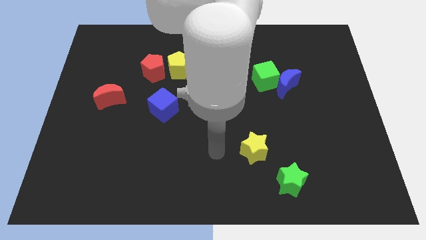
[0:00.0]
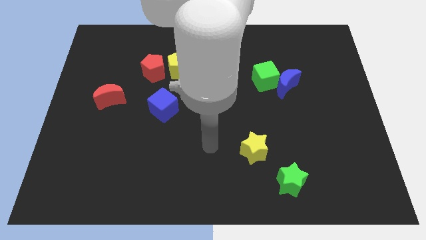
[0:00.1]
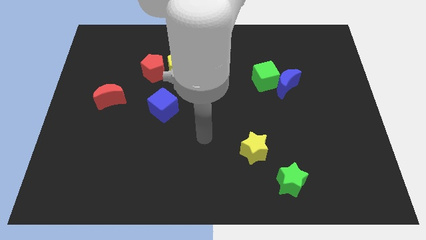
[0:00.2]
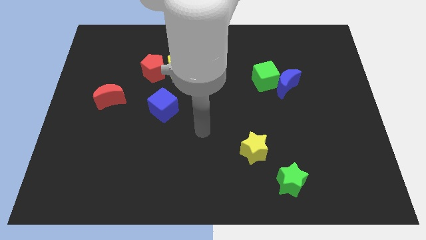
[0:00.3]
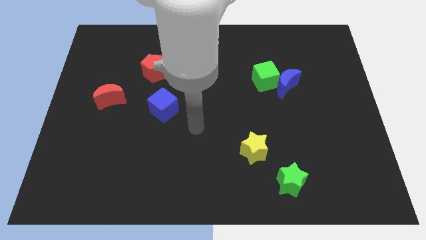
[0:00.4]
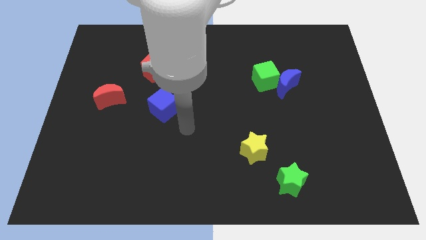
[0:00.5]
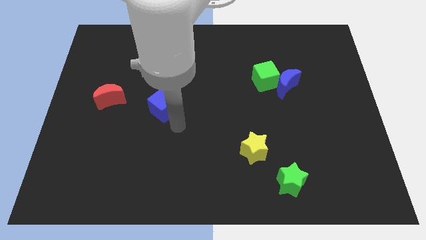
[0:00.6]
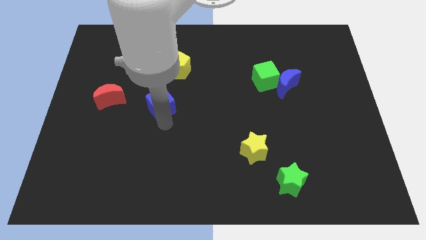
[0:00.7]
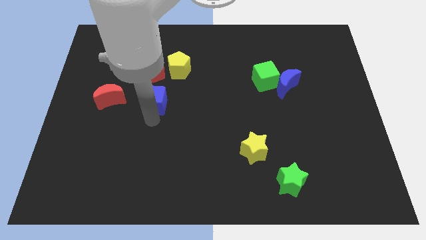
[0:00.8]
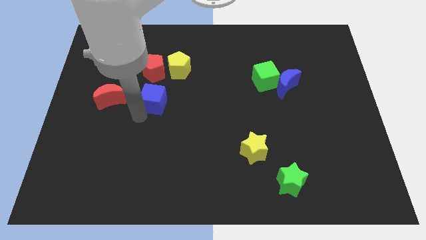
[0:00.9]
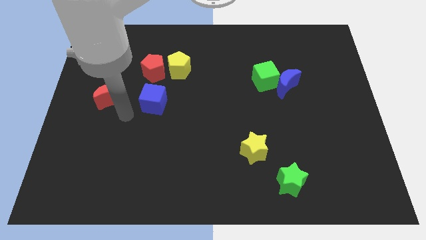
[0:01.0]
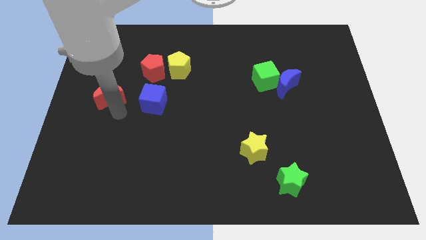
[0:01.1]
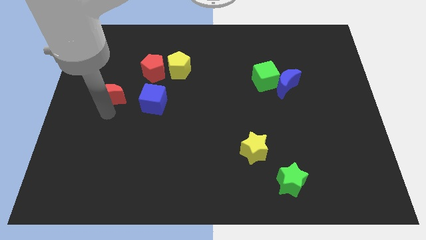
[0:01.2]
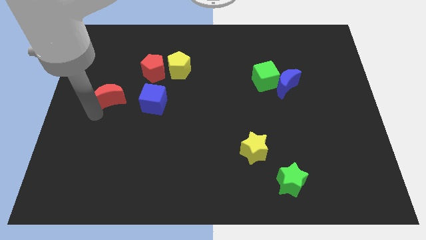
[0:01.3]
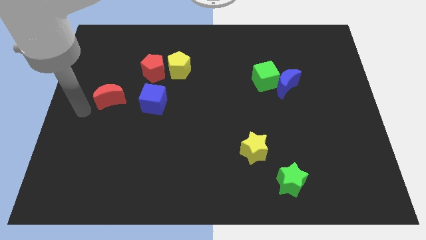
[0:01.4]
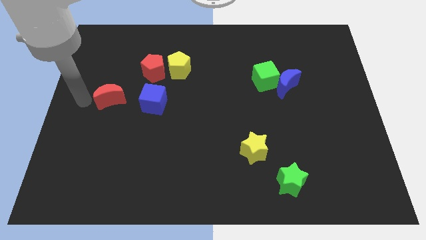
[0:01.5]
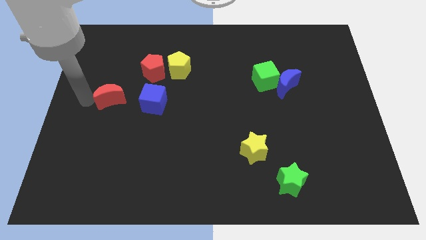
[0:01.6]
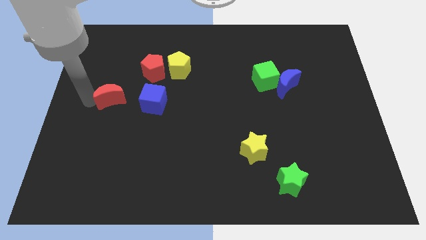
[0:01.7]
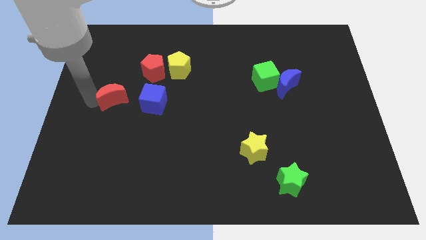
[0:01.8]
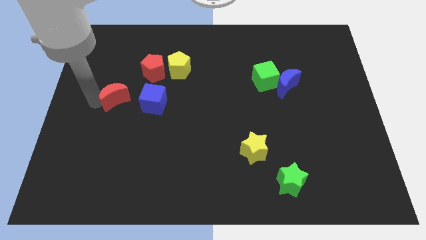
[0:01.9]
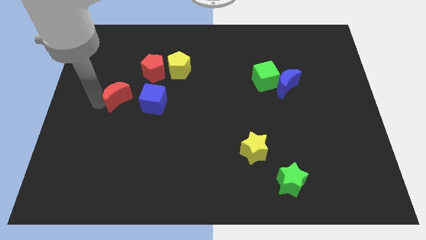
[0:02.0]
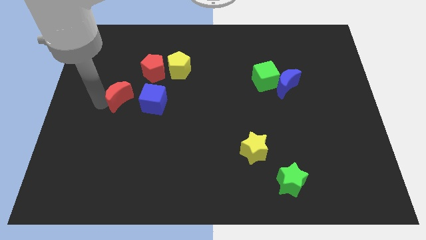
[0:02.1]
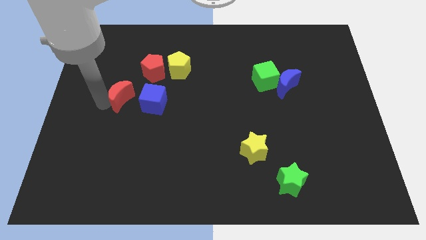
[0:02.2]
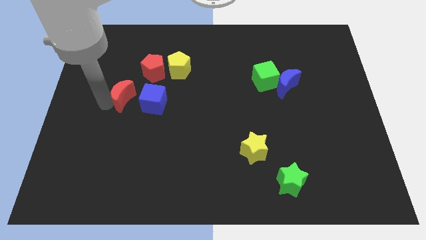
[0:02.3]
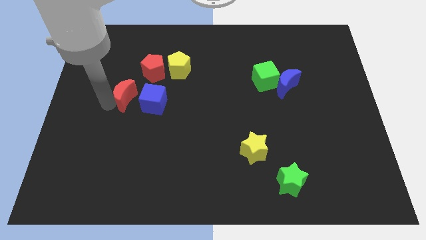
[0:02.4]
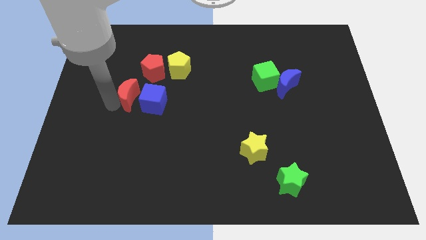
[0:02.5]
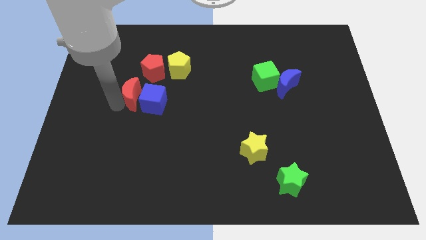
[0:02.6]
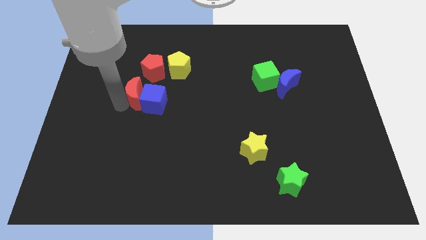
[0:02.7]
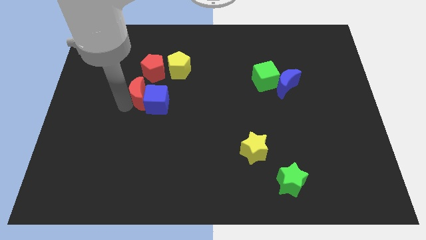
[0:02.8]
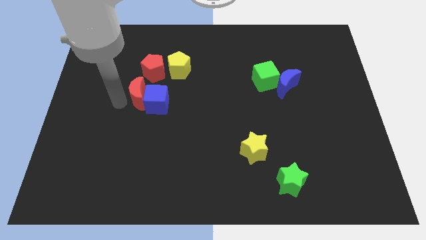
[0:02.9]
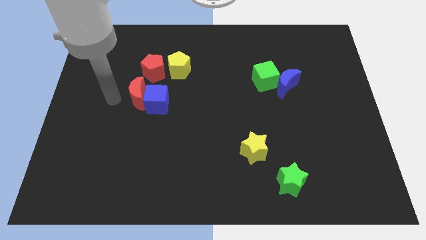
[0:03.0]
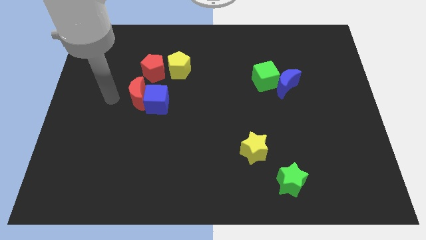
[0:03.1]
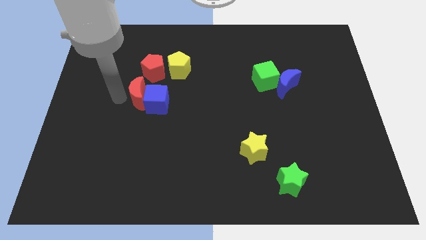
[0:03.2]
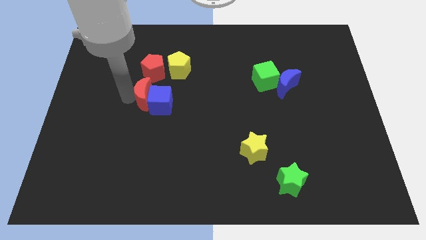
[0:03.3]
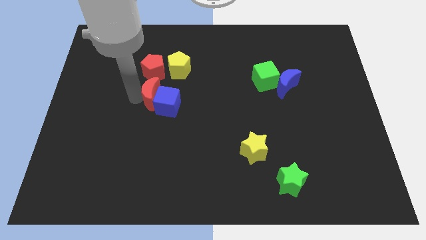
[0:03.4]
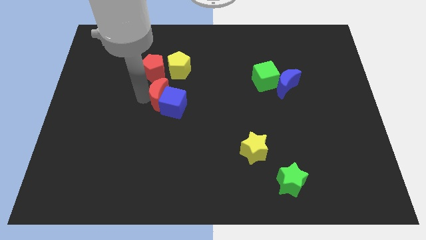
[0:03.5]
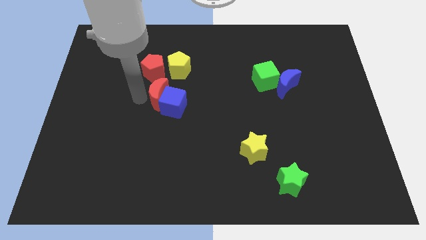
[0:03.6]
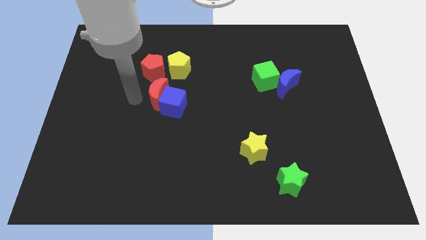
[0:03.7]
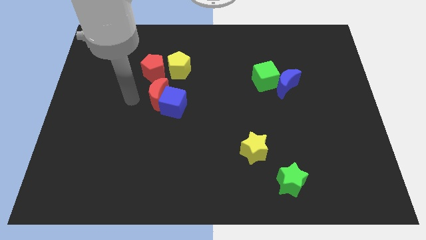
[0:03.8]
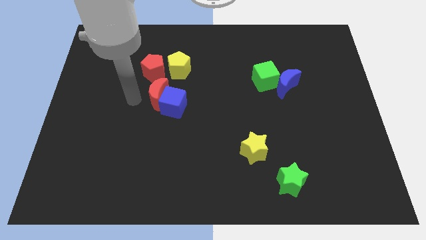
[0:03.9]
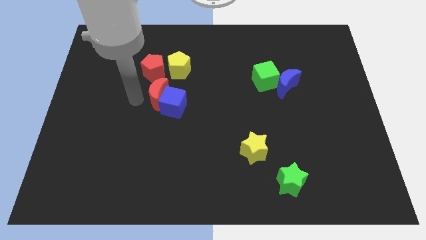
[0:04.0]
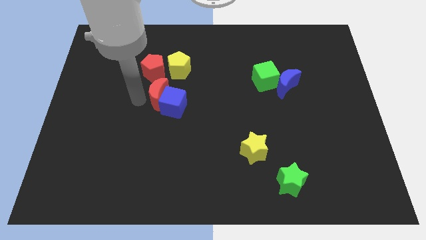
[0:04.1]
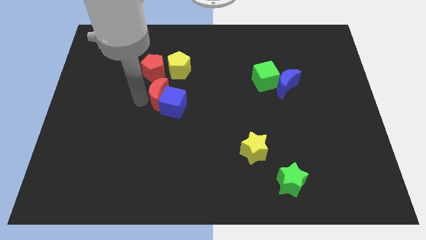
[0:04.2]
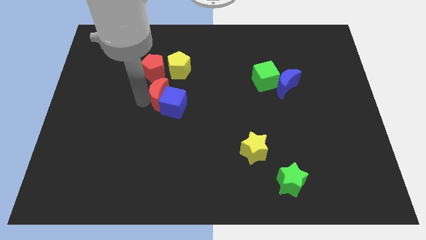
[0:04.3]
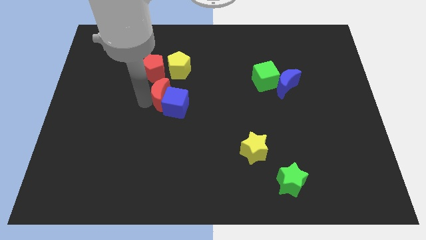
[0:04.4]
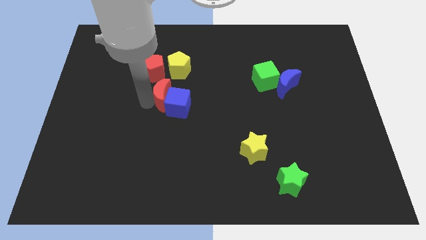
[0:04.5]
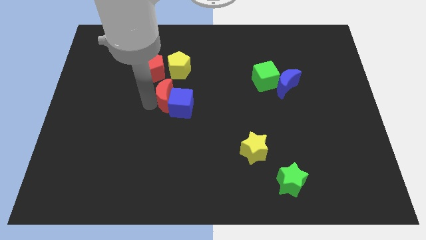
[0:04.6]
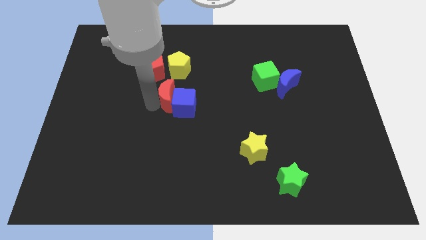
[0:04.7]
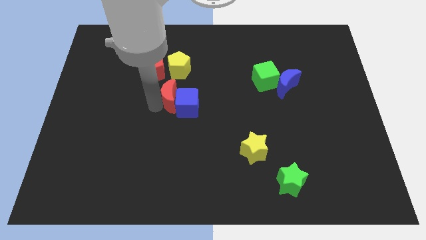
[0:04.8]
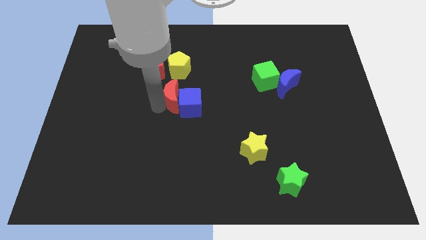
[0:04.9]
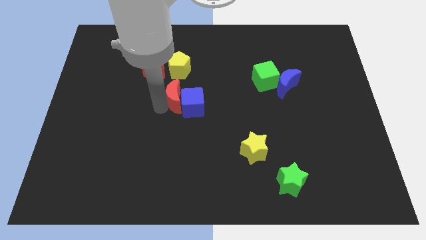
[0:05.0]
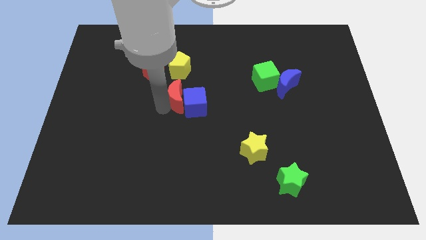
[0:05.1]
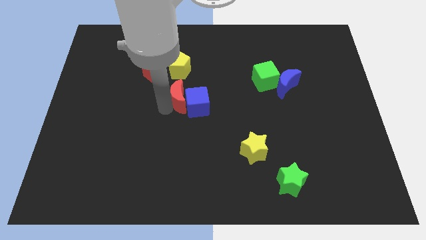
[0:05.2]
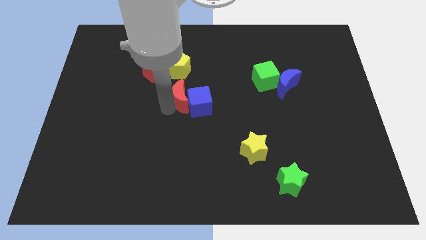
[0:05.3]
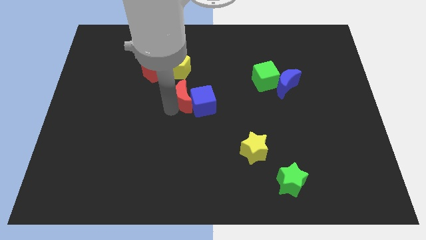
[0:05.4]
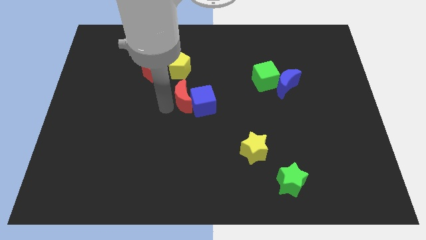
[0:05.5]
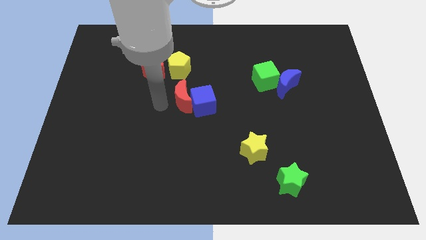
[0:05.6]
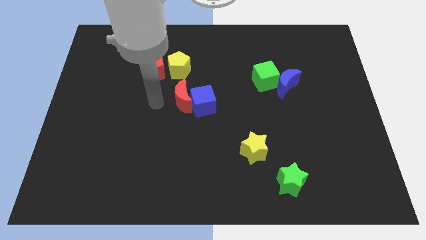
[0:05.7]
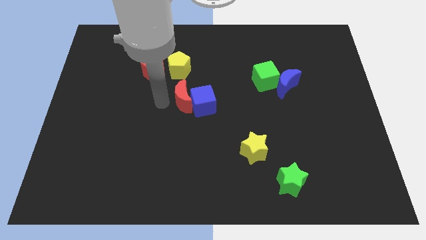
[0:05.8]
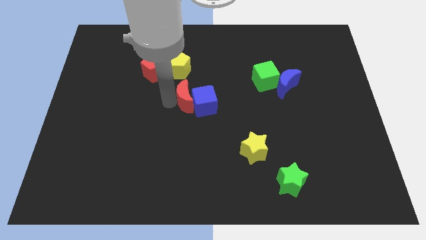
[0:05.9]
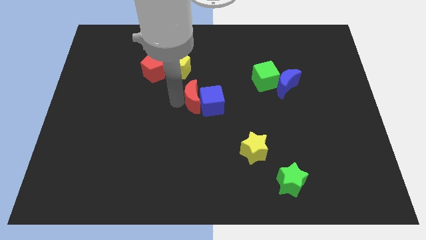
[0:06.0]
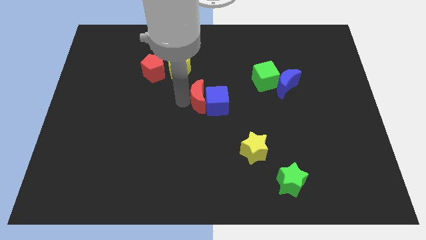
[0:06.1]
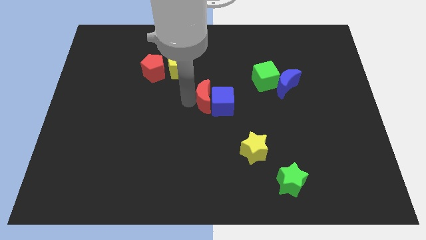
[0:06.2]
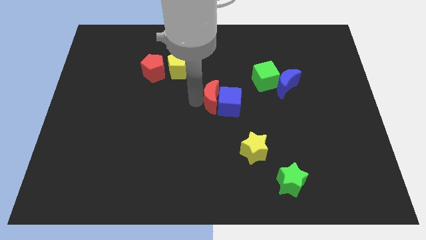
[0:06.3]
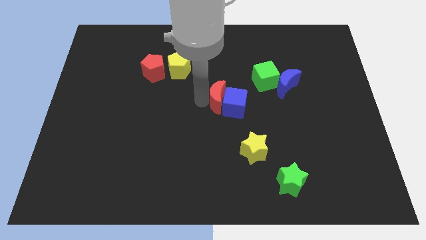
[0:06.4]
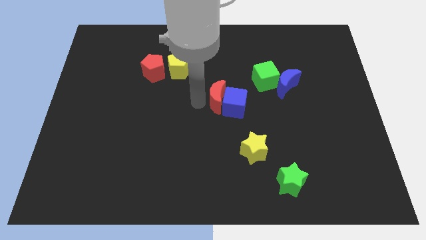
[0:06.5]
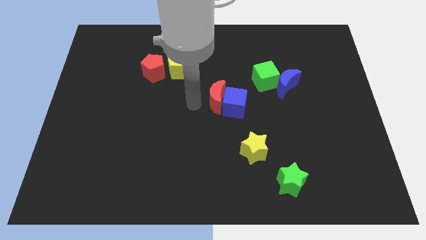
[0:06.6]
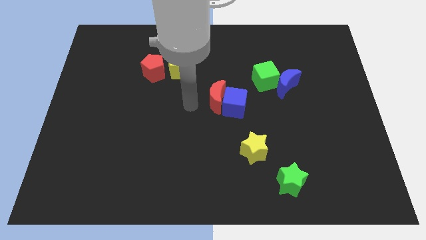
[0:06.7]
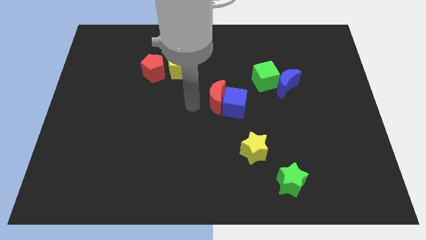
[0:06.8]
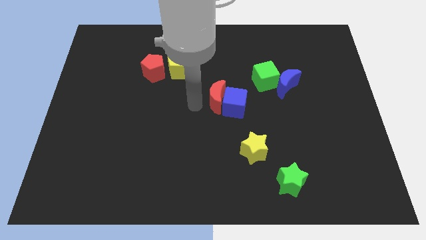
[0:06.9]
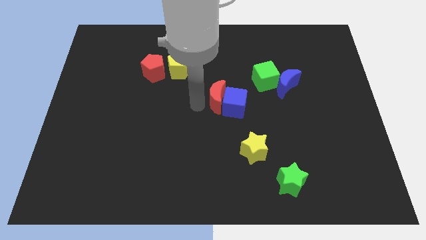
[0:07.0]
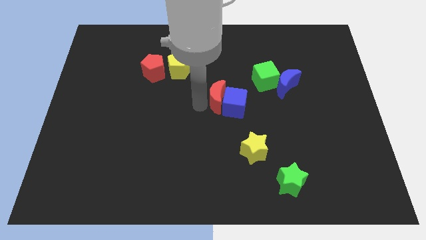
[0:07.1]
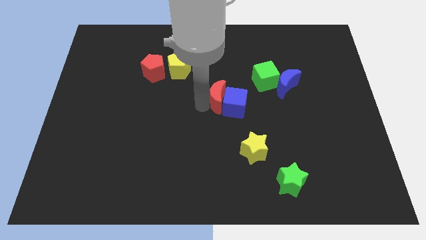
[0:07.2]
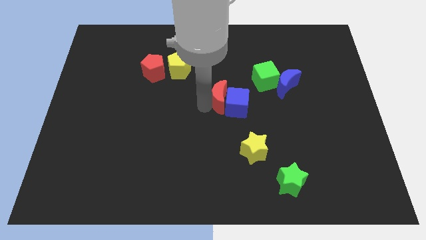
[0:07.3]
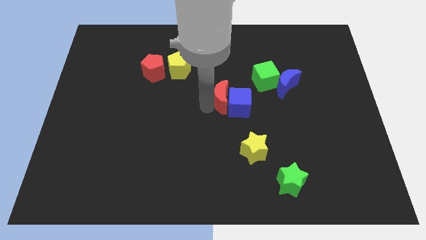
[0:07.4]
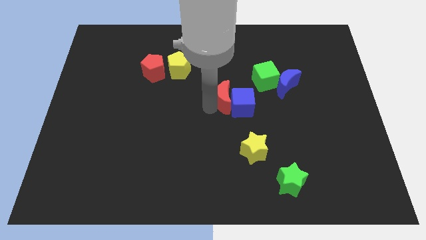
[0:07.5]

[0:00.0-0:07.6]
slide the red moon diagonally down and to the left of the green cube
